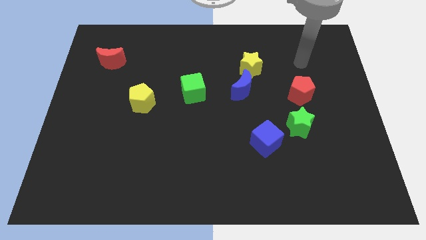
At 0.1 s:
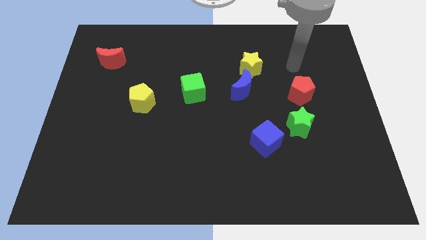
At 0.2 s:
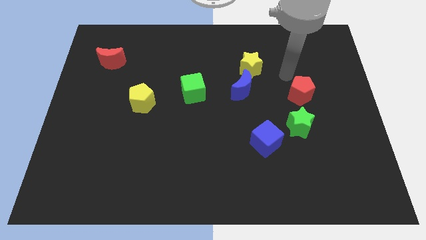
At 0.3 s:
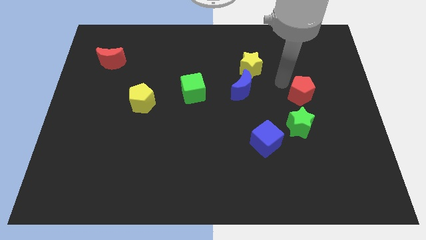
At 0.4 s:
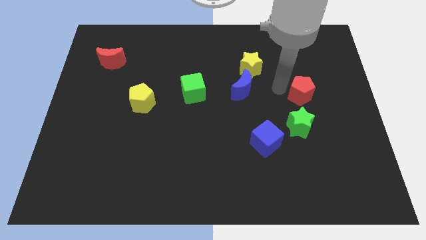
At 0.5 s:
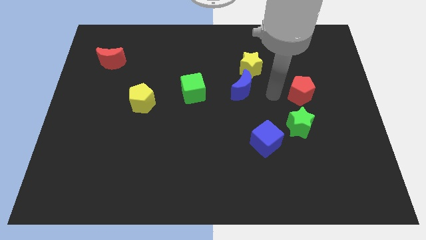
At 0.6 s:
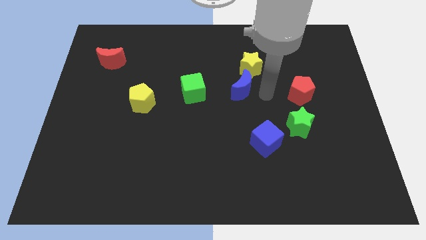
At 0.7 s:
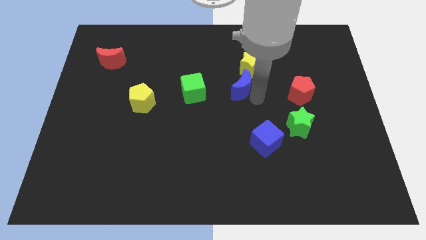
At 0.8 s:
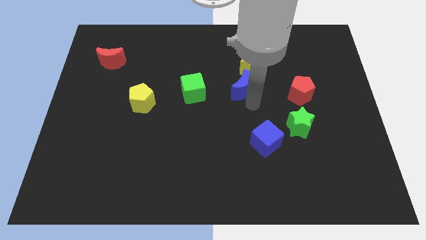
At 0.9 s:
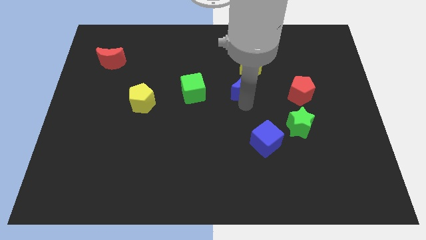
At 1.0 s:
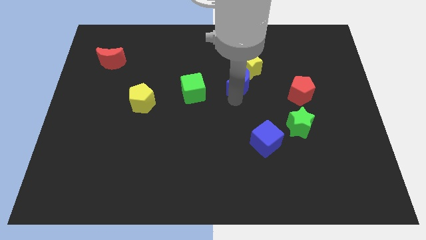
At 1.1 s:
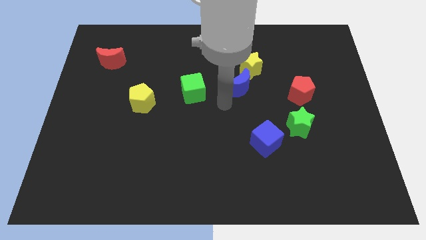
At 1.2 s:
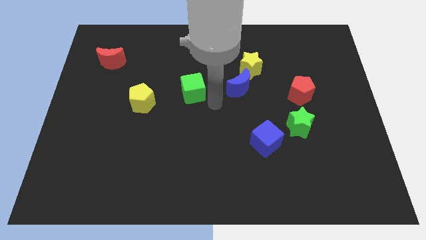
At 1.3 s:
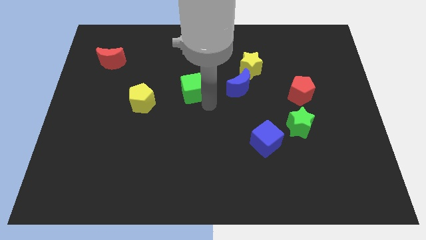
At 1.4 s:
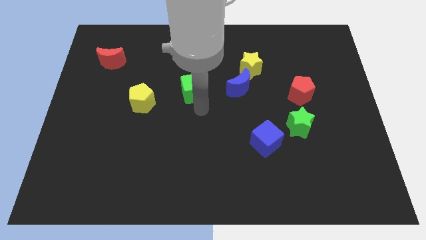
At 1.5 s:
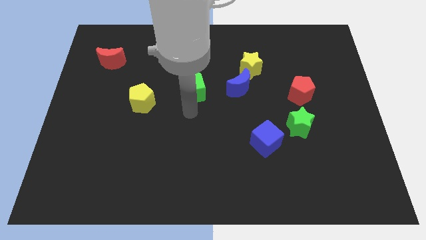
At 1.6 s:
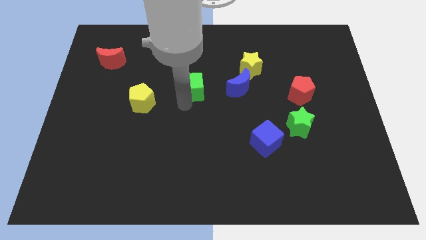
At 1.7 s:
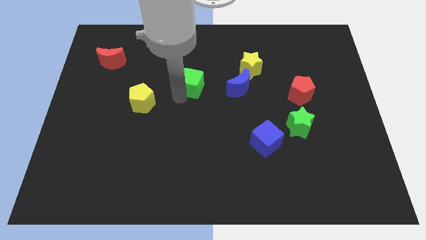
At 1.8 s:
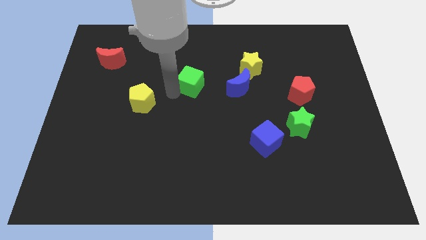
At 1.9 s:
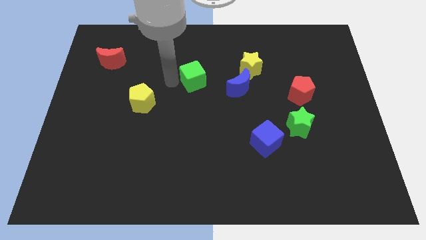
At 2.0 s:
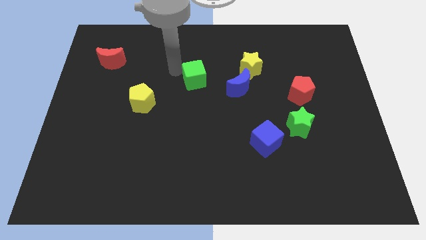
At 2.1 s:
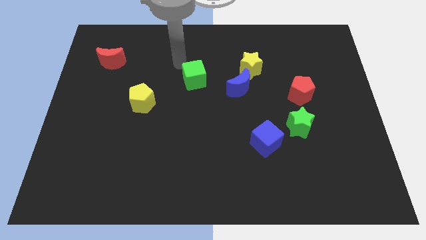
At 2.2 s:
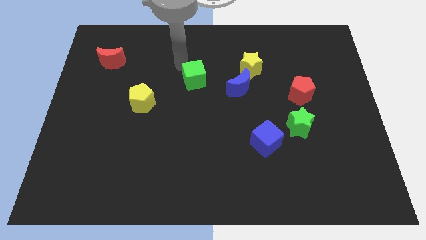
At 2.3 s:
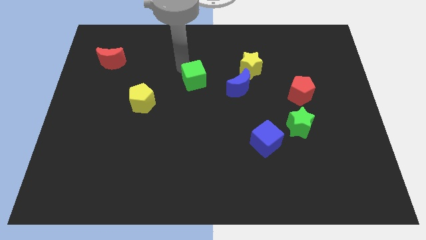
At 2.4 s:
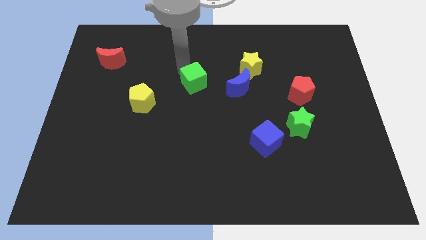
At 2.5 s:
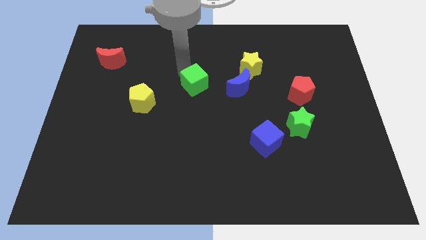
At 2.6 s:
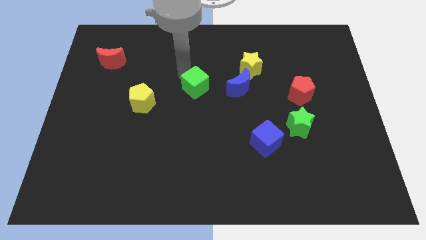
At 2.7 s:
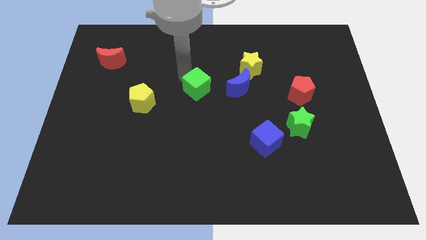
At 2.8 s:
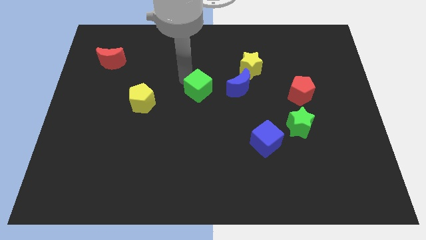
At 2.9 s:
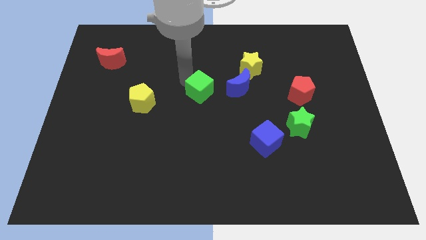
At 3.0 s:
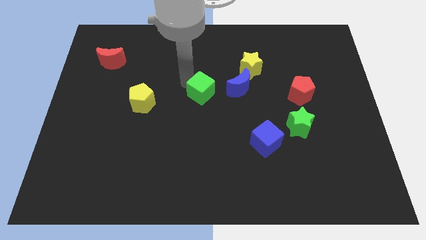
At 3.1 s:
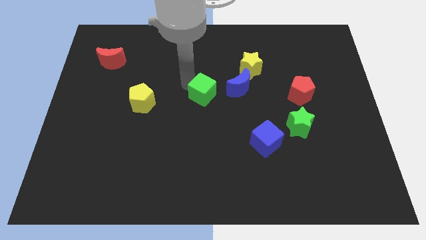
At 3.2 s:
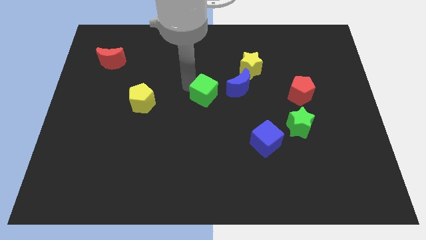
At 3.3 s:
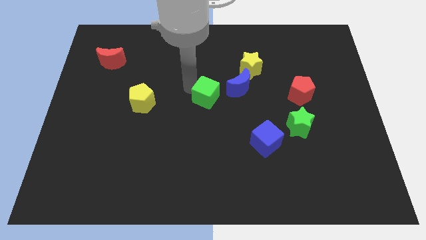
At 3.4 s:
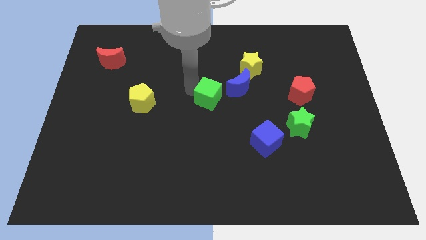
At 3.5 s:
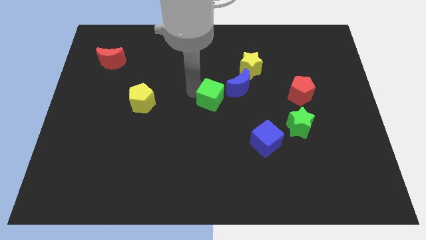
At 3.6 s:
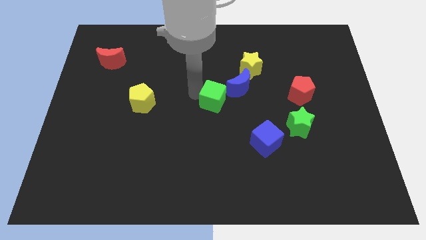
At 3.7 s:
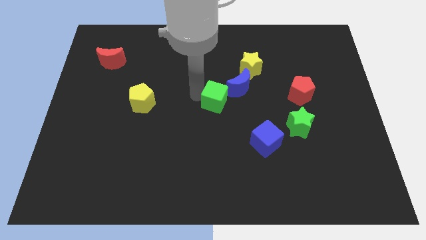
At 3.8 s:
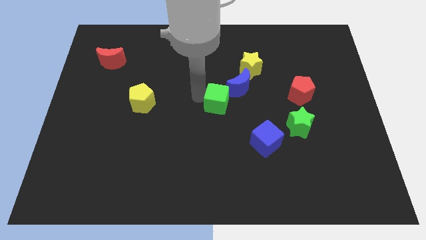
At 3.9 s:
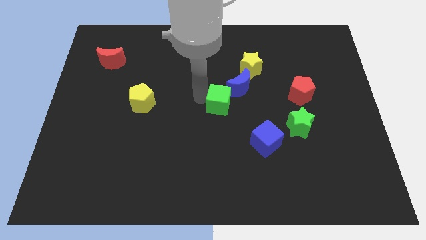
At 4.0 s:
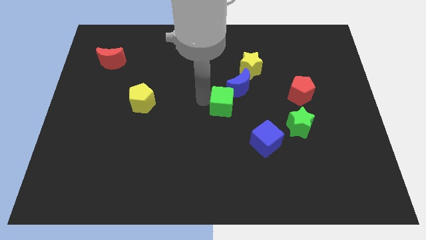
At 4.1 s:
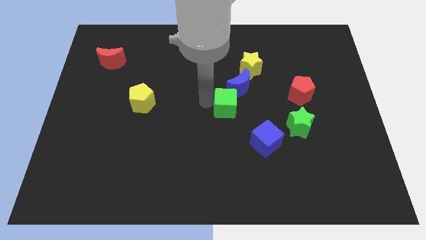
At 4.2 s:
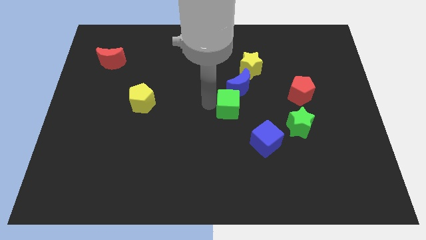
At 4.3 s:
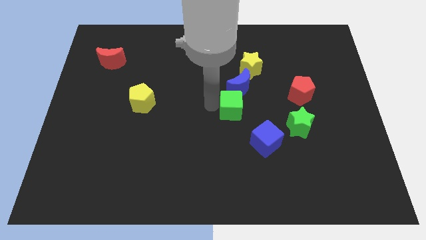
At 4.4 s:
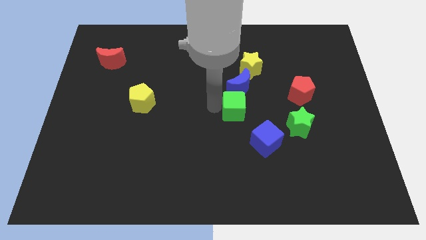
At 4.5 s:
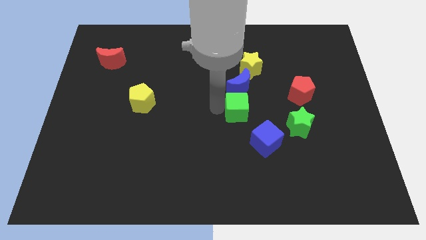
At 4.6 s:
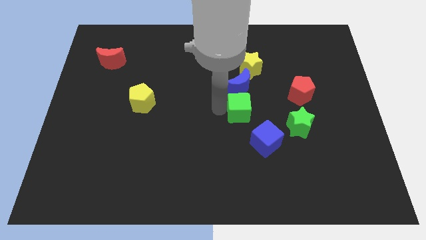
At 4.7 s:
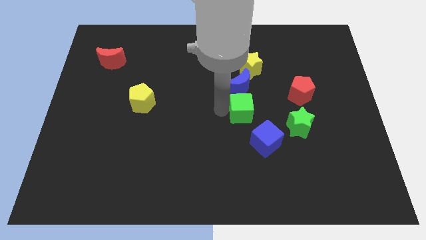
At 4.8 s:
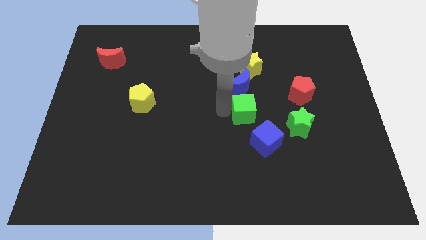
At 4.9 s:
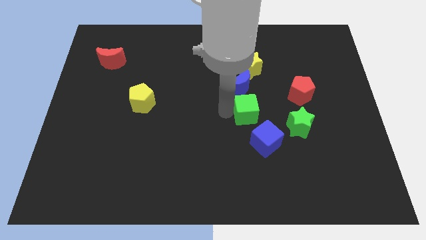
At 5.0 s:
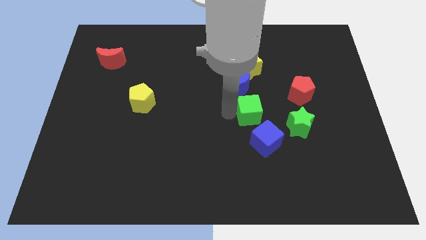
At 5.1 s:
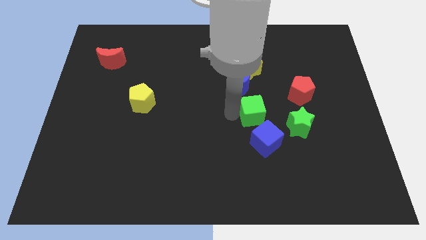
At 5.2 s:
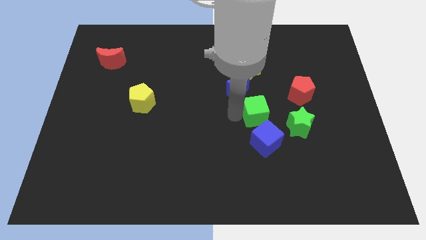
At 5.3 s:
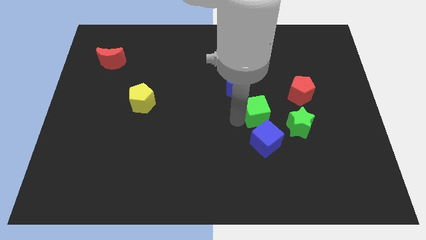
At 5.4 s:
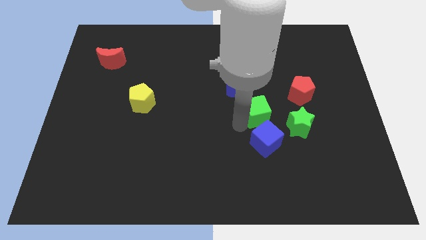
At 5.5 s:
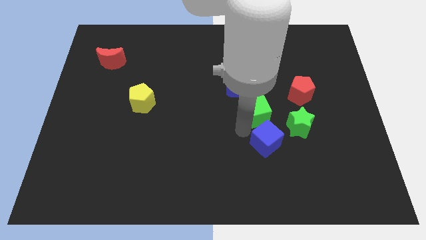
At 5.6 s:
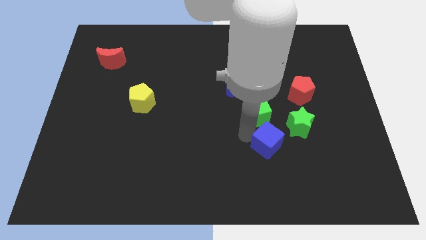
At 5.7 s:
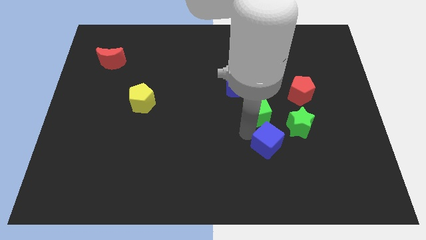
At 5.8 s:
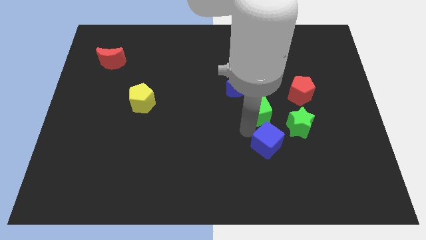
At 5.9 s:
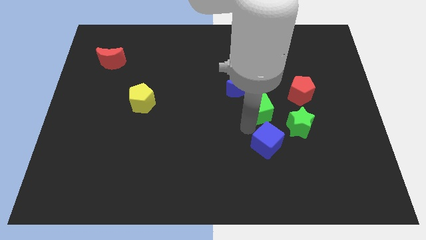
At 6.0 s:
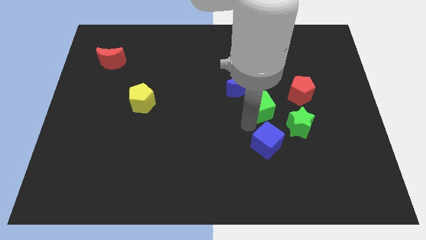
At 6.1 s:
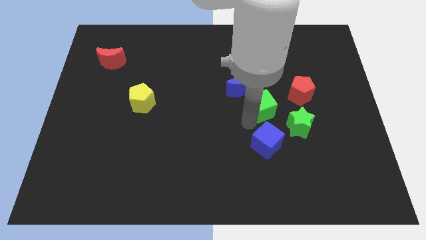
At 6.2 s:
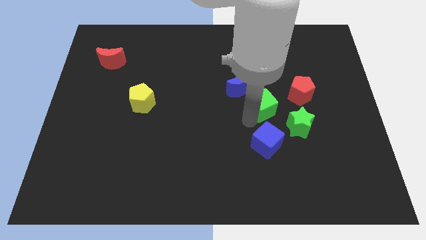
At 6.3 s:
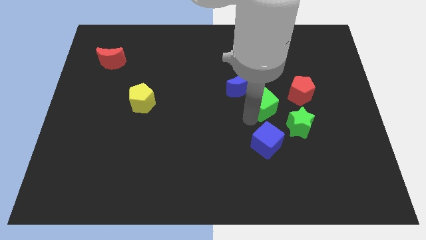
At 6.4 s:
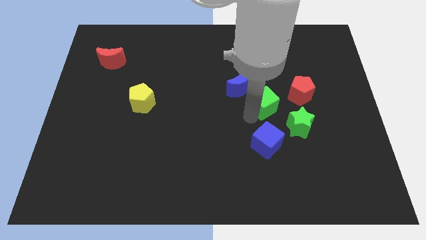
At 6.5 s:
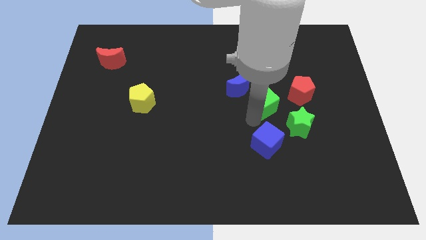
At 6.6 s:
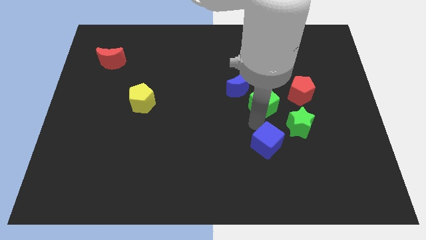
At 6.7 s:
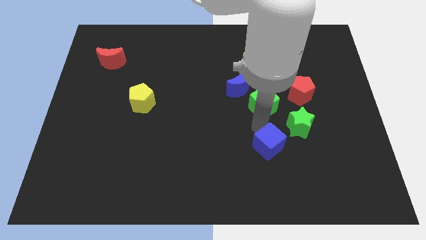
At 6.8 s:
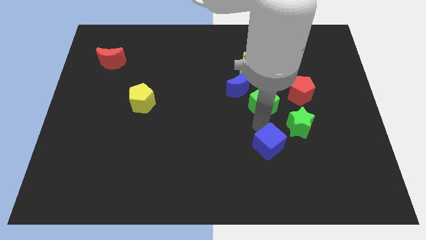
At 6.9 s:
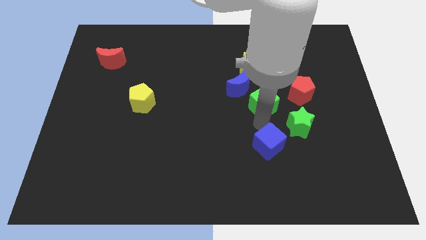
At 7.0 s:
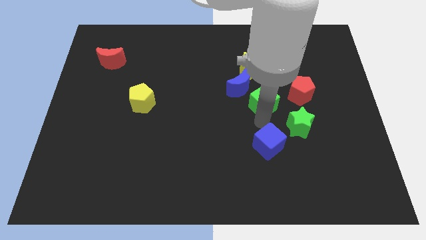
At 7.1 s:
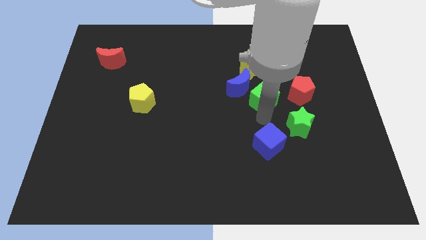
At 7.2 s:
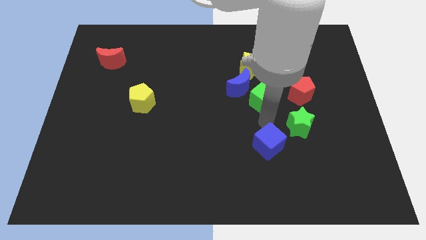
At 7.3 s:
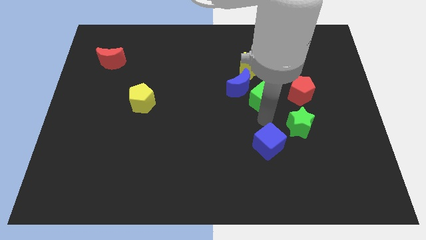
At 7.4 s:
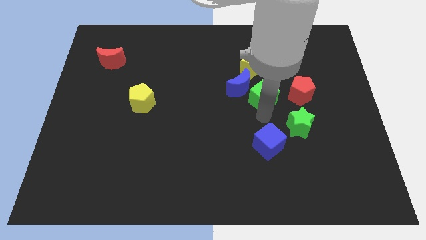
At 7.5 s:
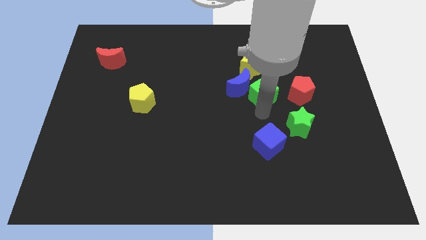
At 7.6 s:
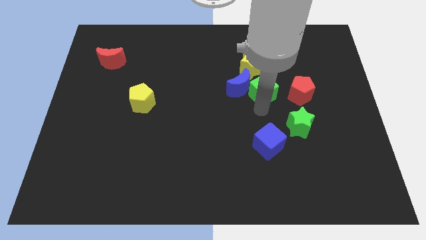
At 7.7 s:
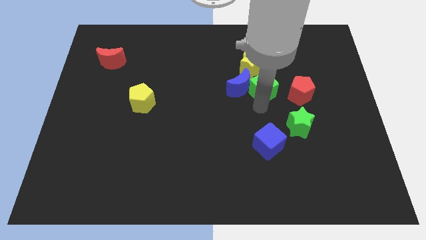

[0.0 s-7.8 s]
put the green cube to the top right side of the blue moon
